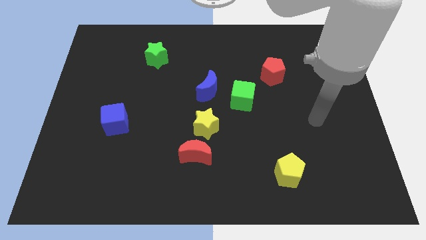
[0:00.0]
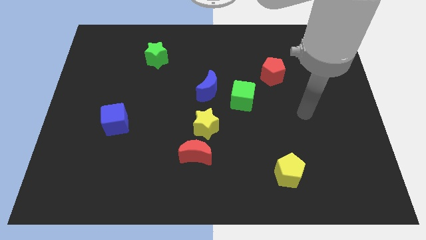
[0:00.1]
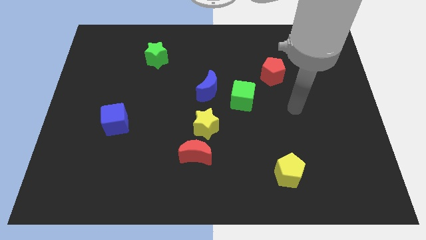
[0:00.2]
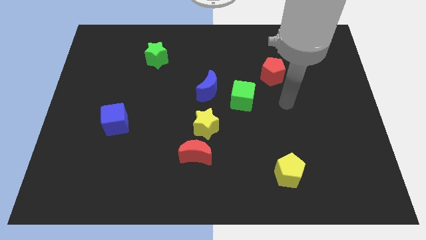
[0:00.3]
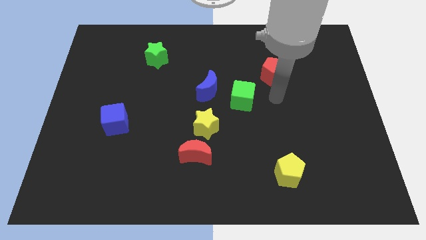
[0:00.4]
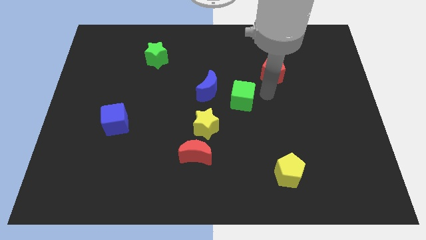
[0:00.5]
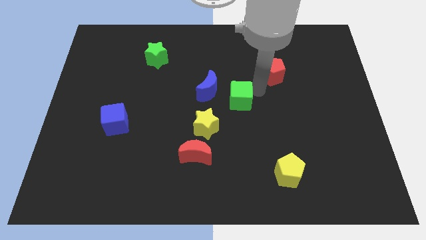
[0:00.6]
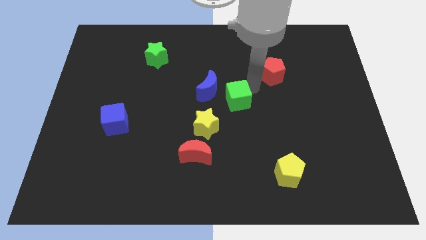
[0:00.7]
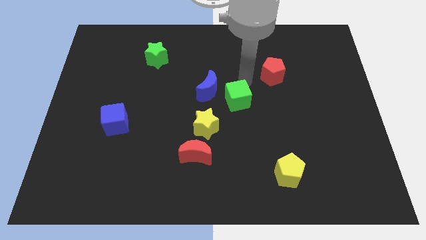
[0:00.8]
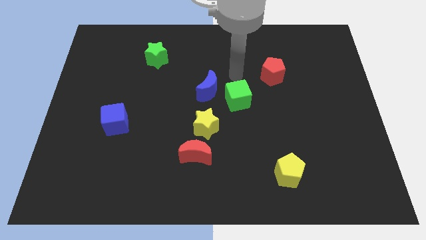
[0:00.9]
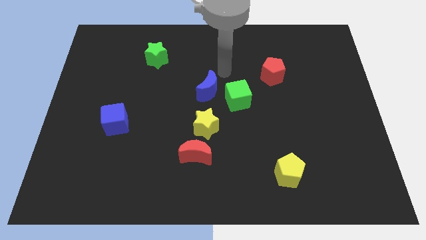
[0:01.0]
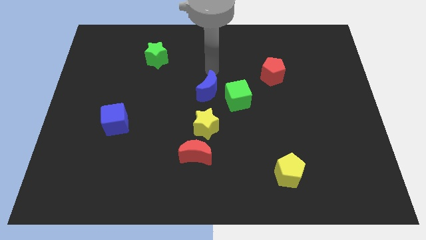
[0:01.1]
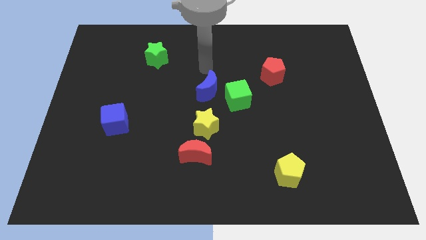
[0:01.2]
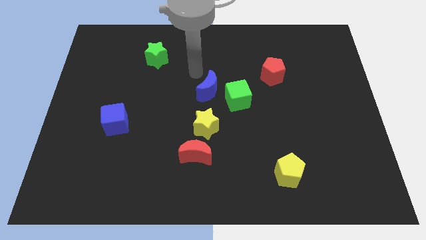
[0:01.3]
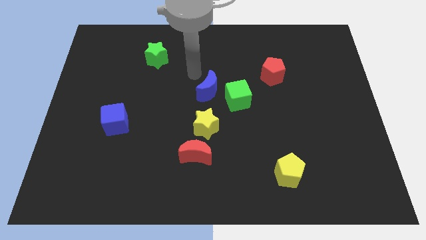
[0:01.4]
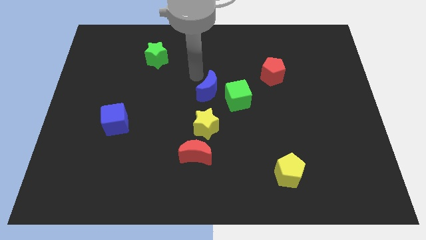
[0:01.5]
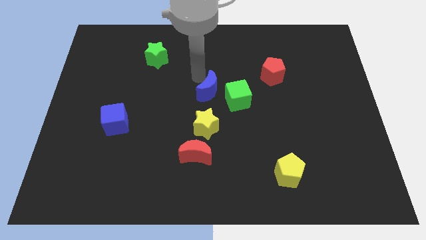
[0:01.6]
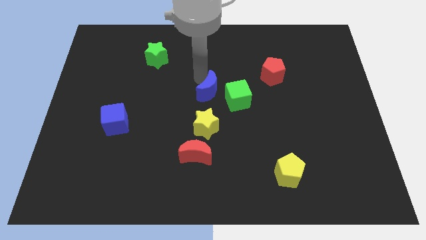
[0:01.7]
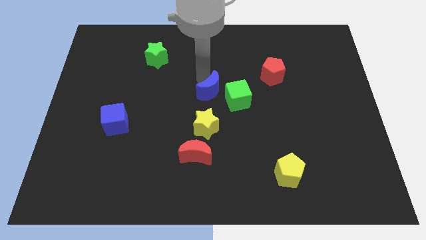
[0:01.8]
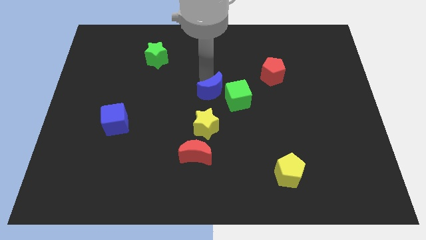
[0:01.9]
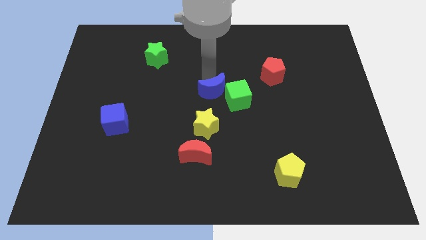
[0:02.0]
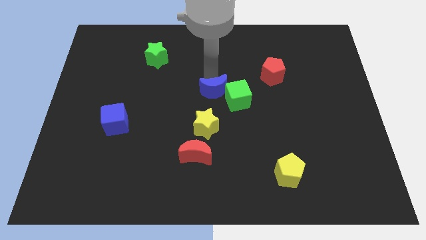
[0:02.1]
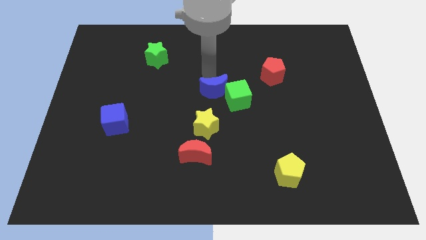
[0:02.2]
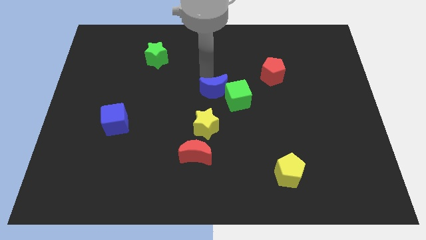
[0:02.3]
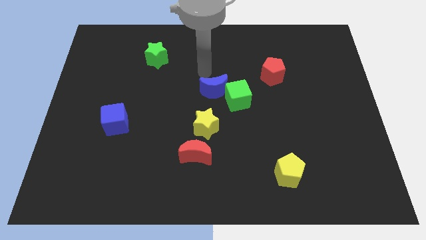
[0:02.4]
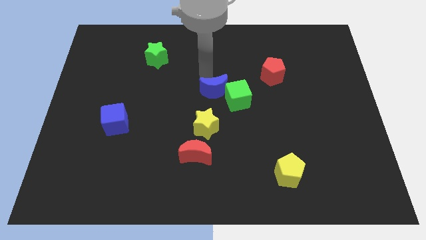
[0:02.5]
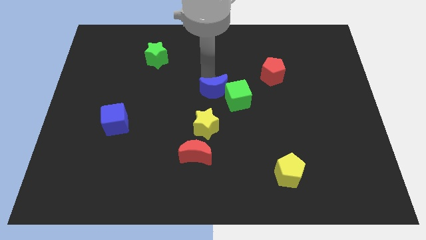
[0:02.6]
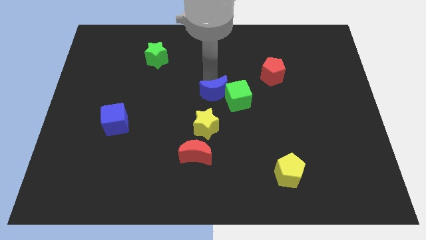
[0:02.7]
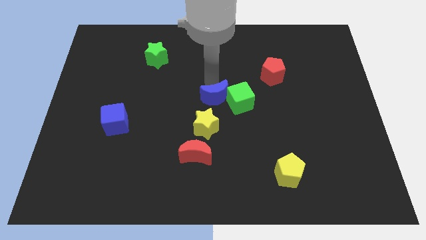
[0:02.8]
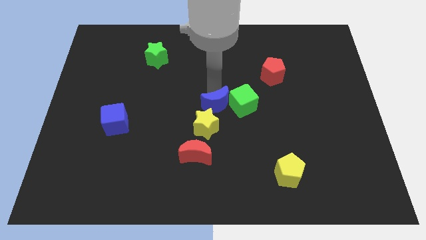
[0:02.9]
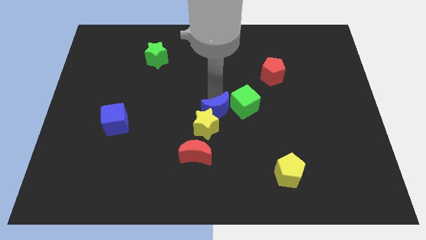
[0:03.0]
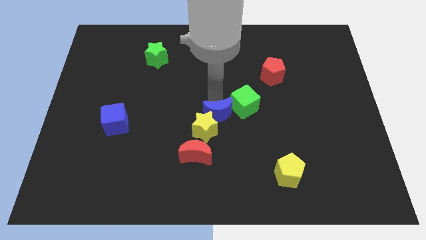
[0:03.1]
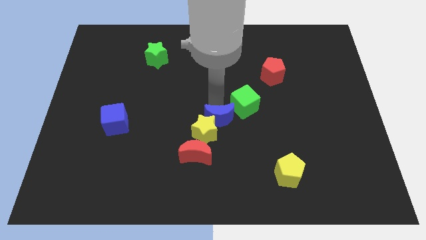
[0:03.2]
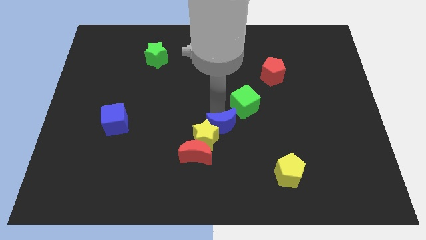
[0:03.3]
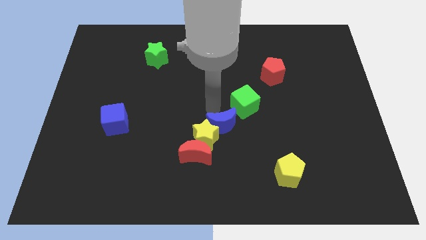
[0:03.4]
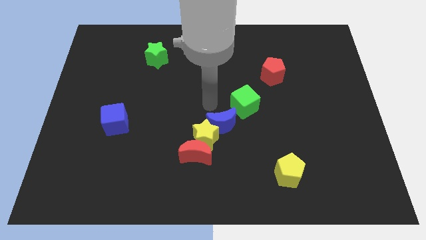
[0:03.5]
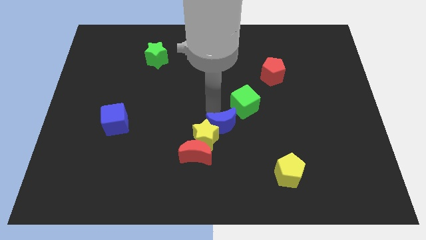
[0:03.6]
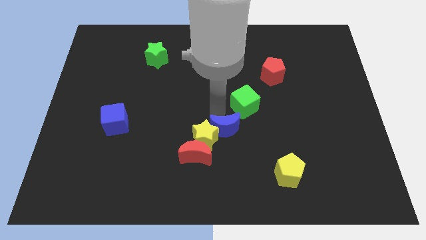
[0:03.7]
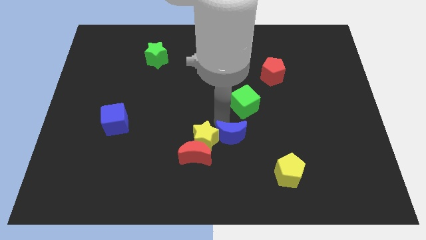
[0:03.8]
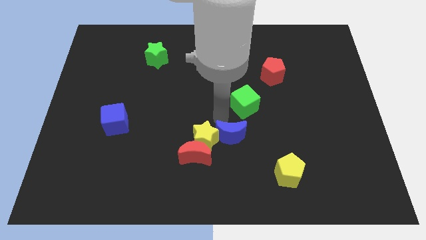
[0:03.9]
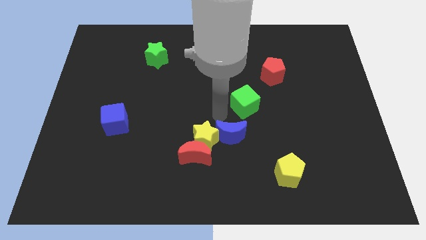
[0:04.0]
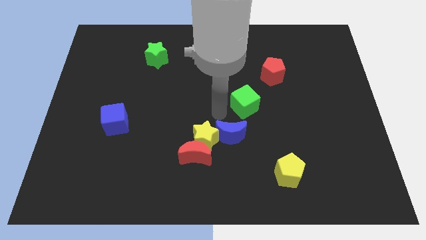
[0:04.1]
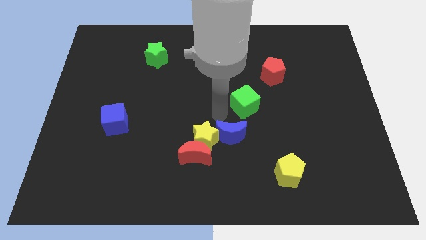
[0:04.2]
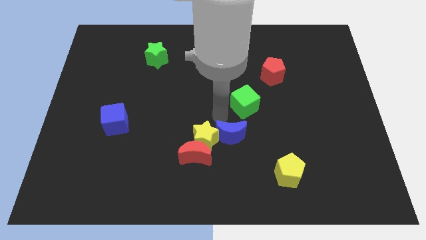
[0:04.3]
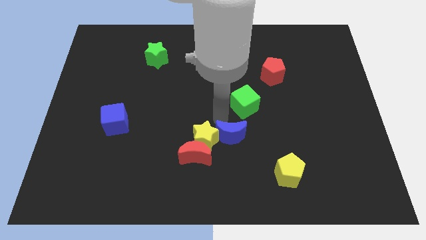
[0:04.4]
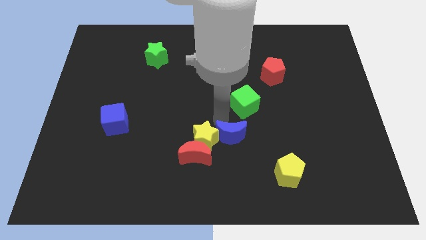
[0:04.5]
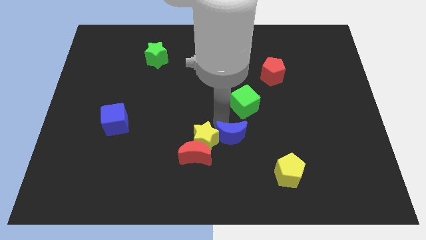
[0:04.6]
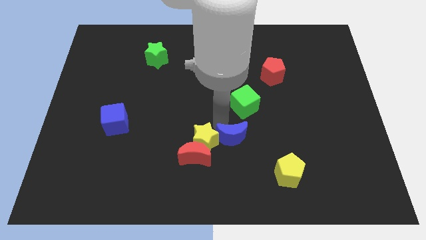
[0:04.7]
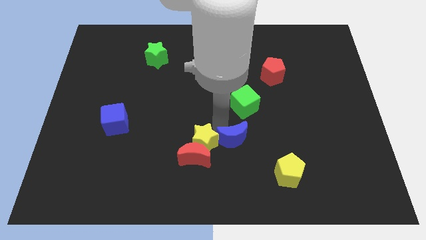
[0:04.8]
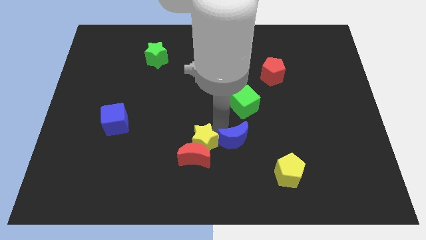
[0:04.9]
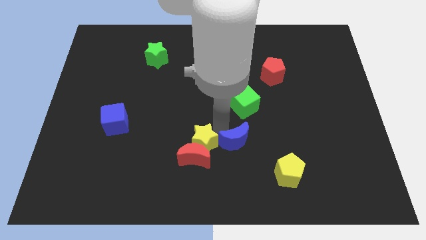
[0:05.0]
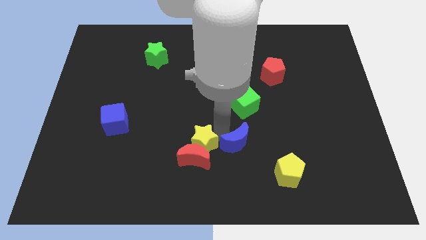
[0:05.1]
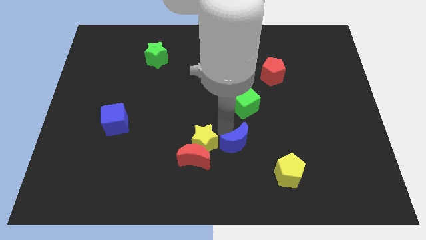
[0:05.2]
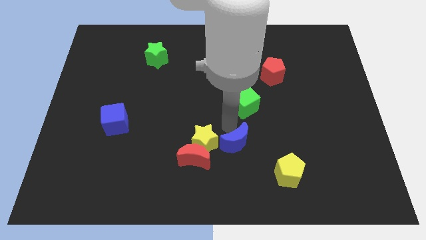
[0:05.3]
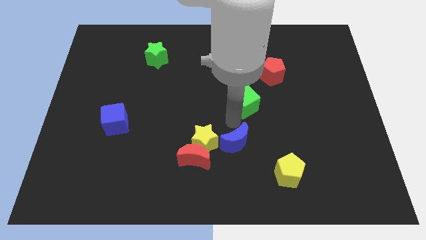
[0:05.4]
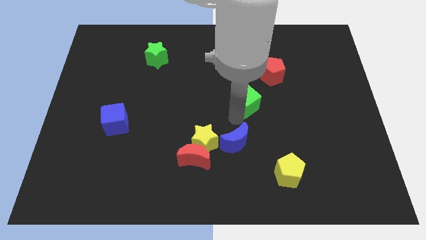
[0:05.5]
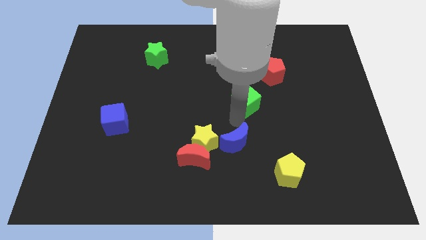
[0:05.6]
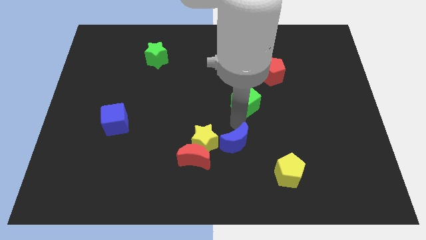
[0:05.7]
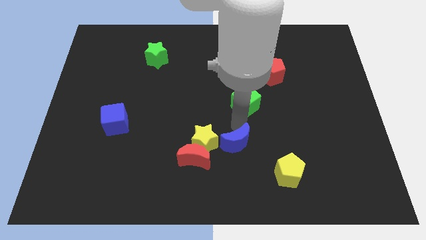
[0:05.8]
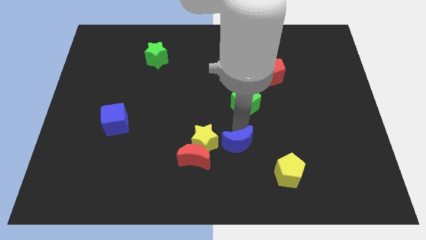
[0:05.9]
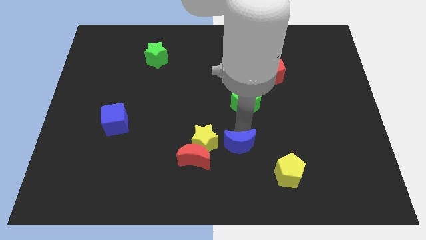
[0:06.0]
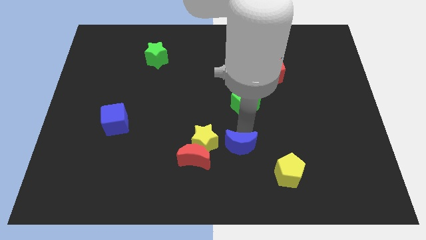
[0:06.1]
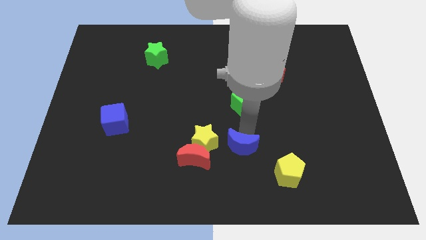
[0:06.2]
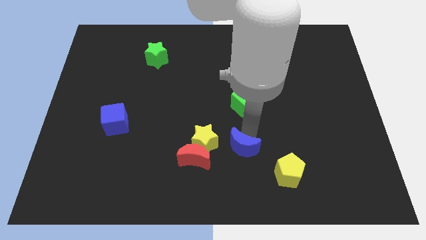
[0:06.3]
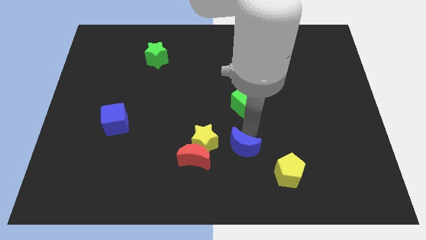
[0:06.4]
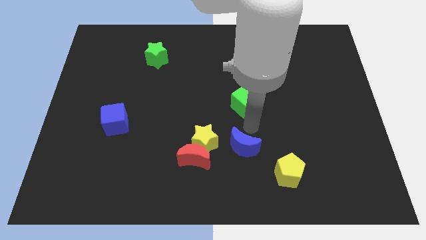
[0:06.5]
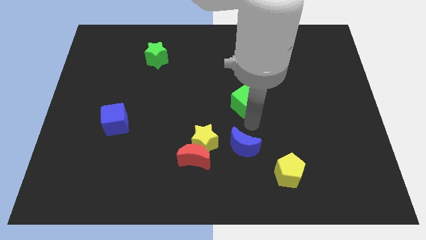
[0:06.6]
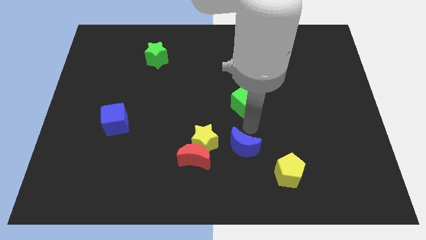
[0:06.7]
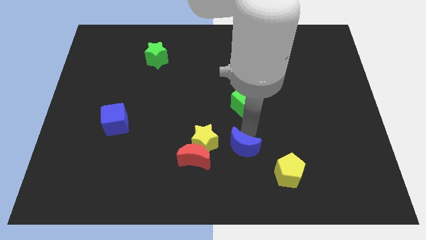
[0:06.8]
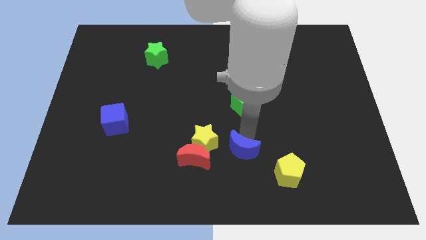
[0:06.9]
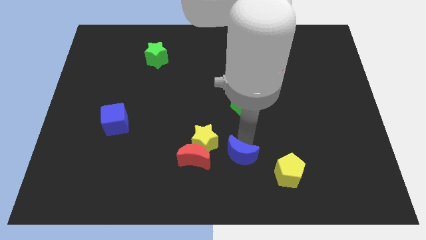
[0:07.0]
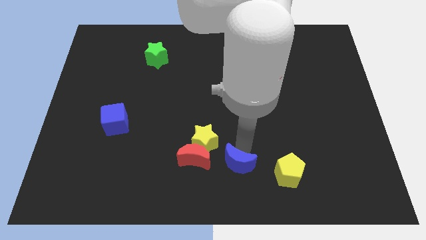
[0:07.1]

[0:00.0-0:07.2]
put the blue moon to the bottom side

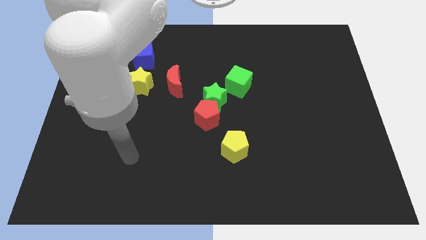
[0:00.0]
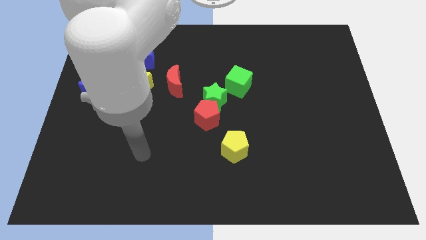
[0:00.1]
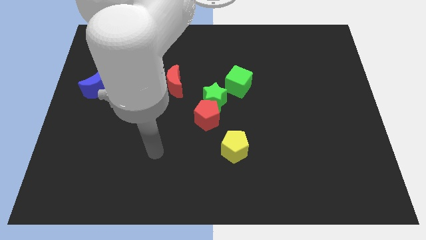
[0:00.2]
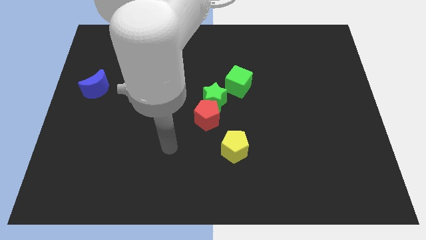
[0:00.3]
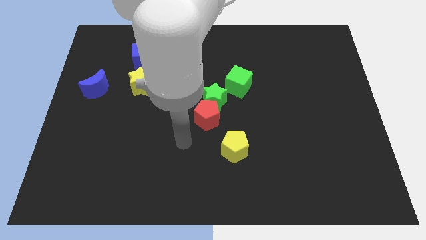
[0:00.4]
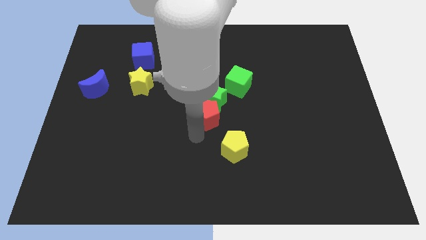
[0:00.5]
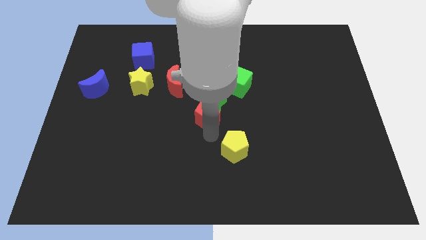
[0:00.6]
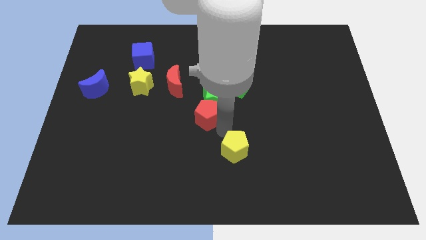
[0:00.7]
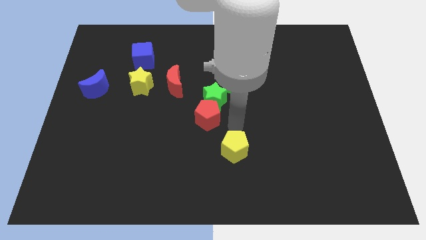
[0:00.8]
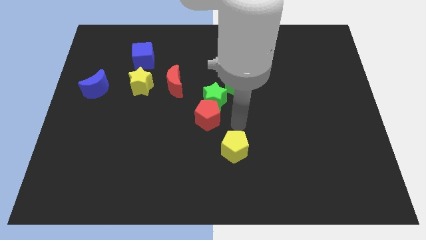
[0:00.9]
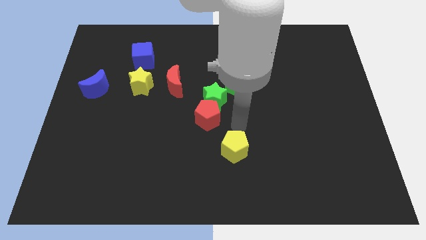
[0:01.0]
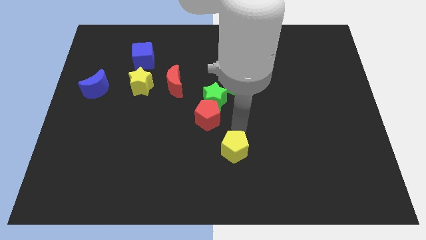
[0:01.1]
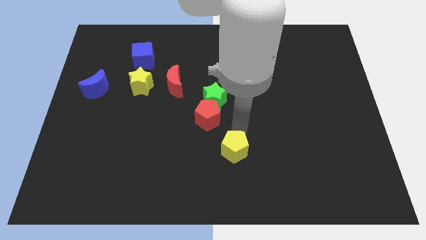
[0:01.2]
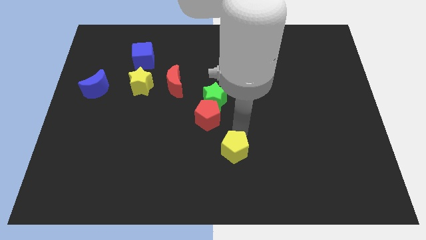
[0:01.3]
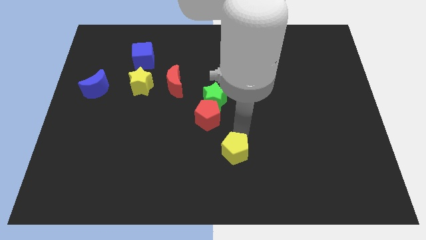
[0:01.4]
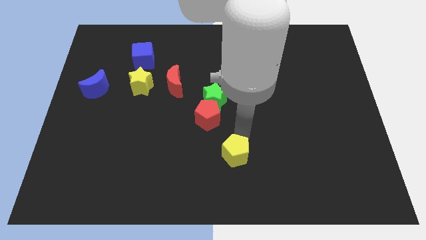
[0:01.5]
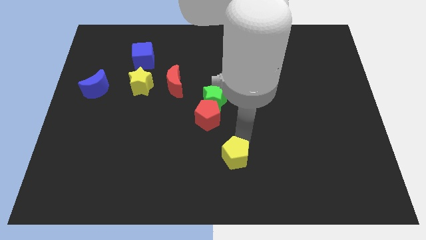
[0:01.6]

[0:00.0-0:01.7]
push the yellow pentagon to the bottom
